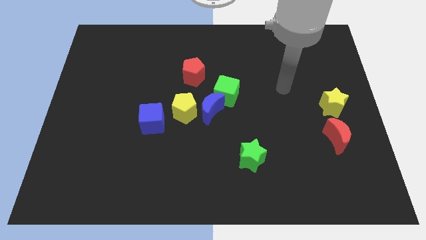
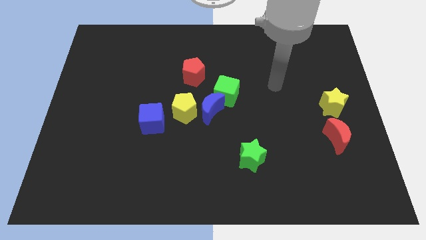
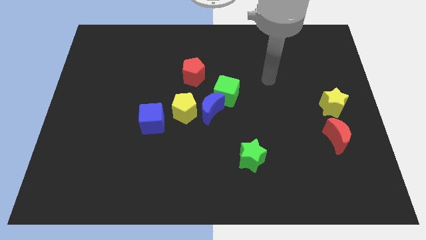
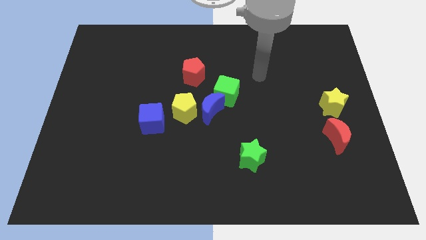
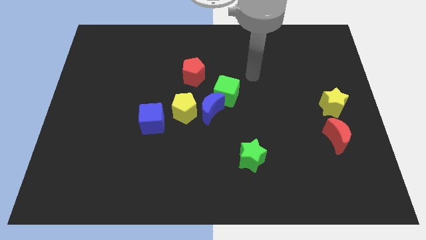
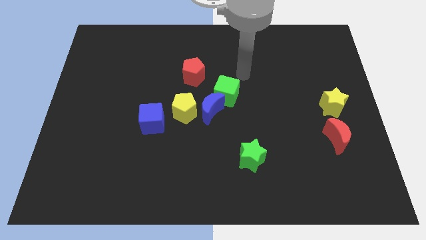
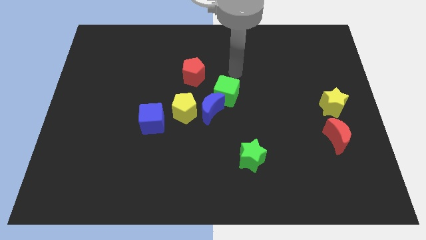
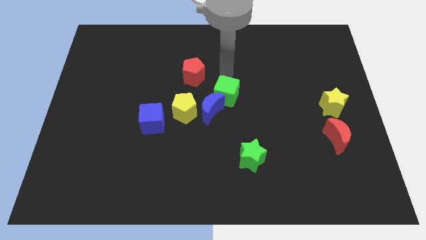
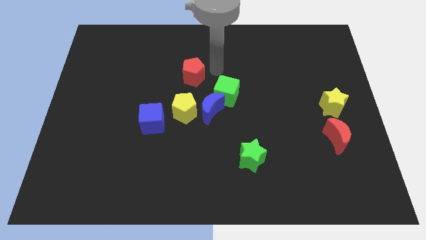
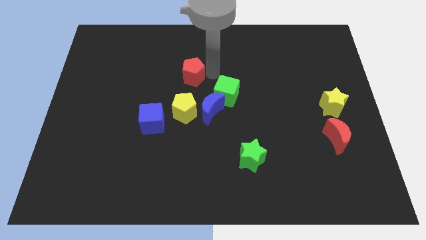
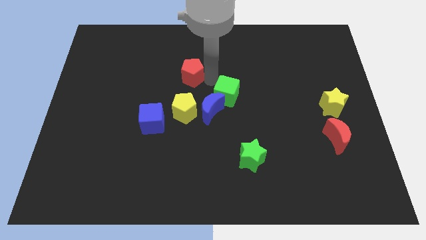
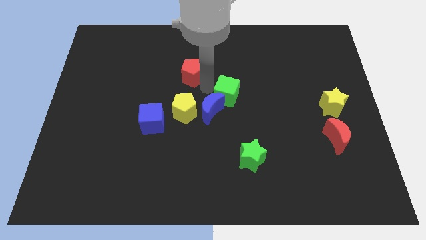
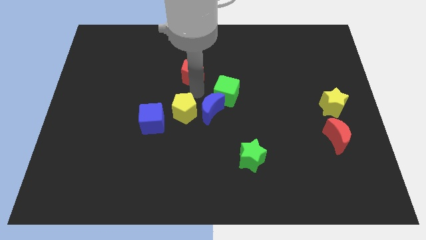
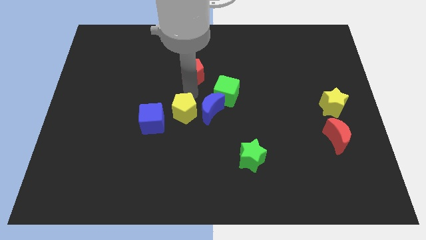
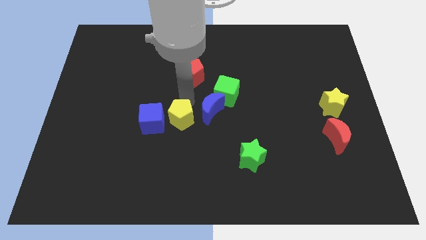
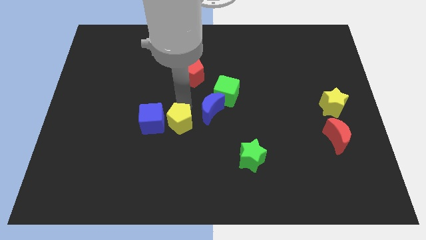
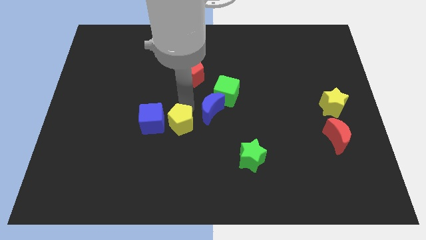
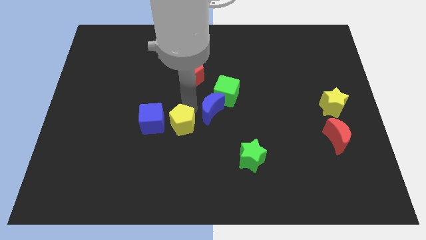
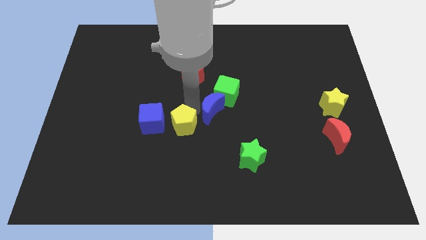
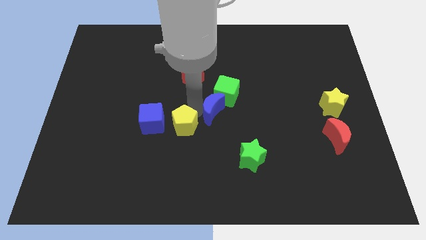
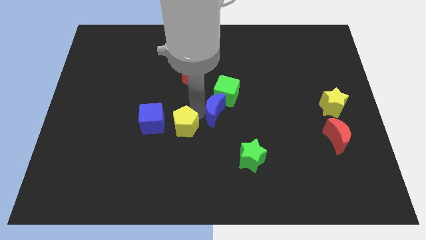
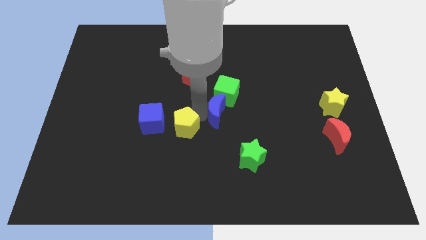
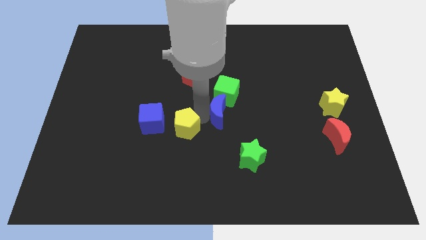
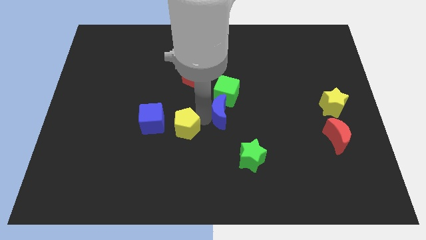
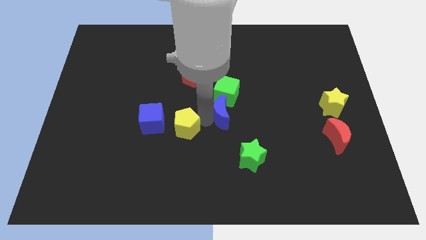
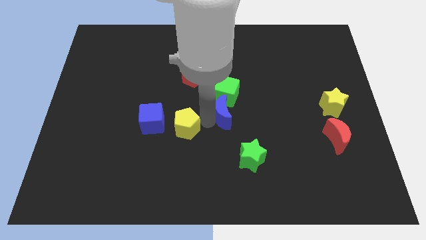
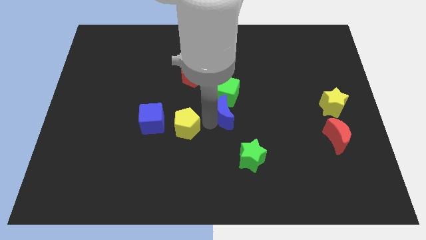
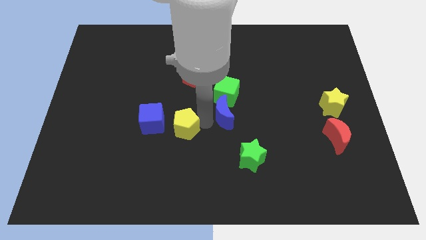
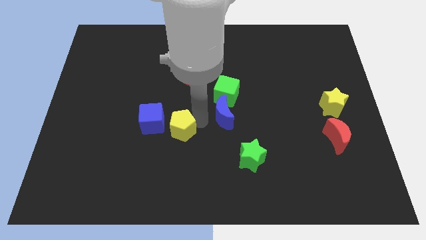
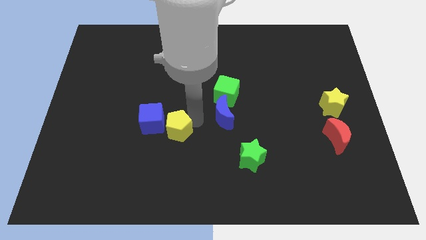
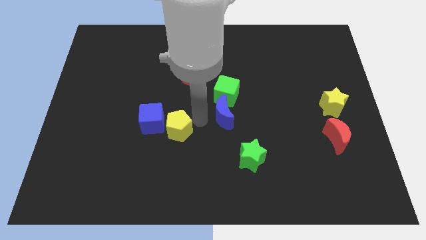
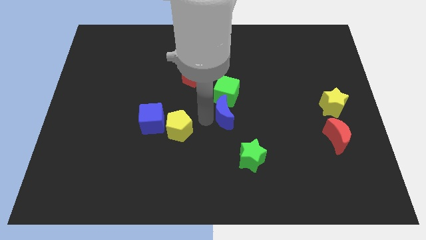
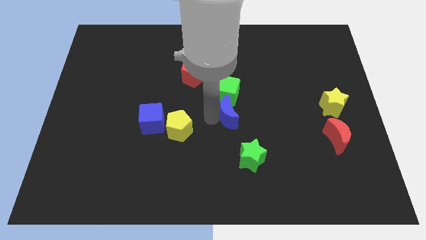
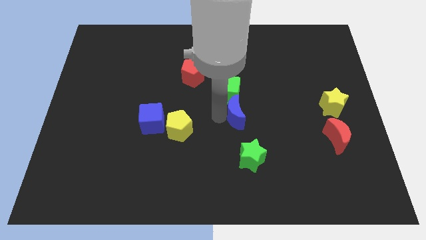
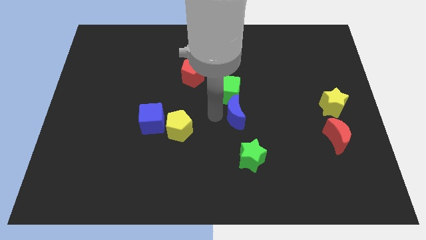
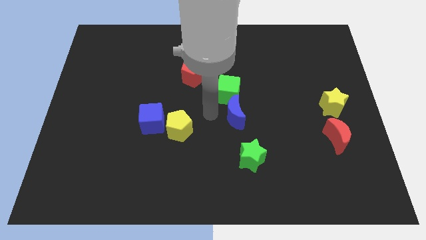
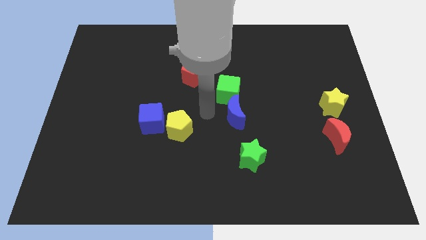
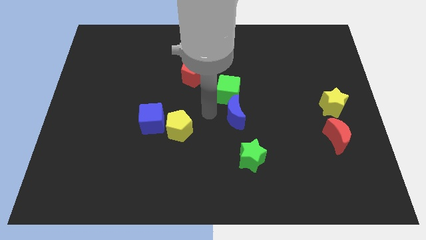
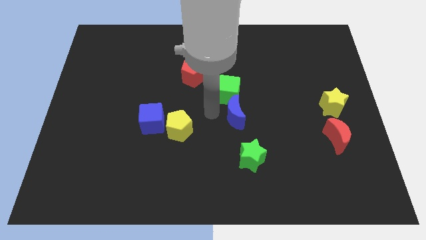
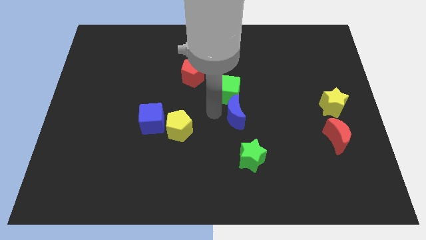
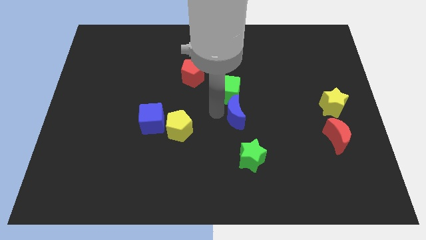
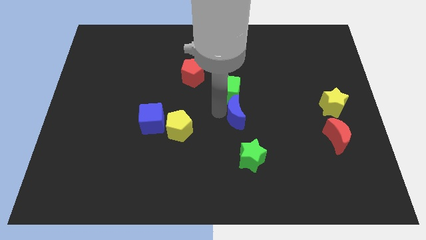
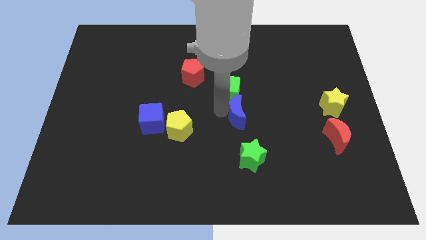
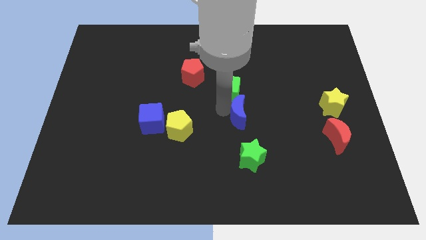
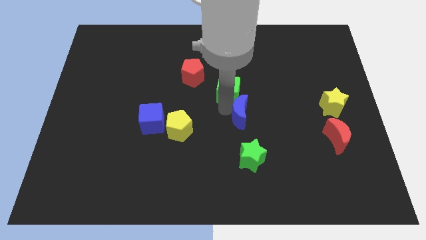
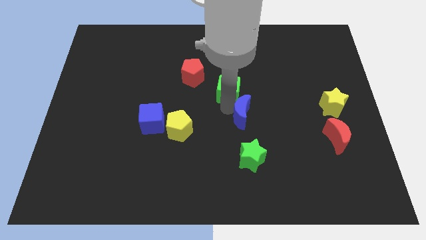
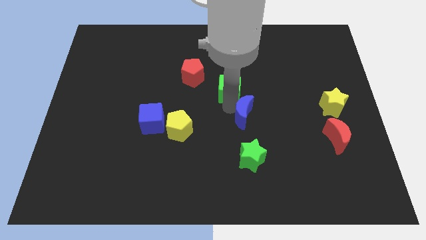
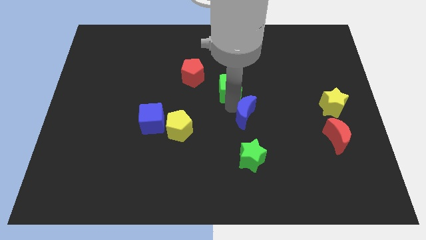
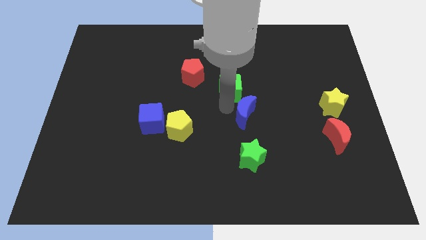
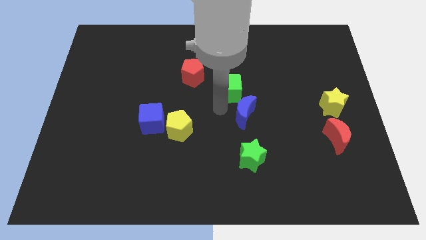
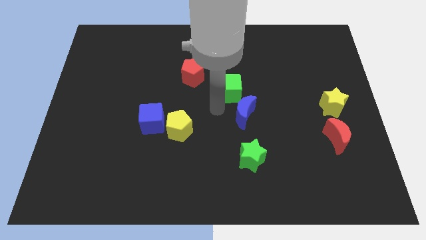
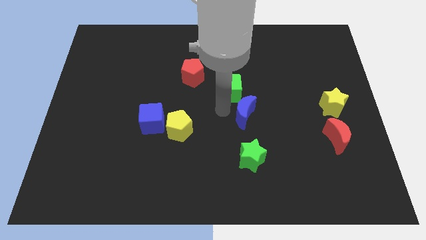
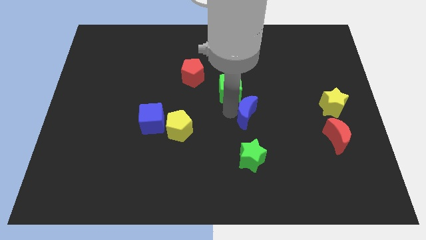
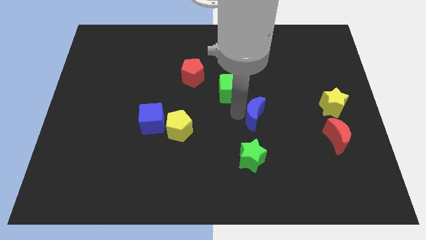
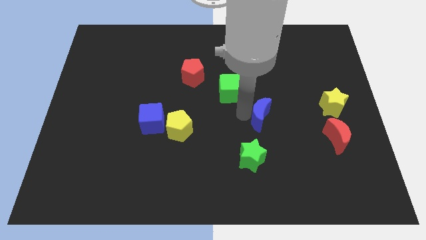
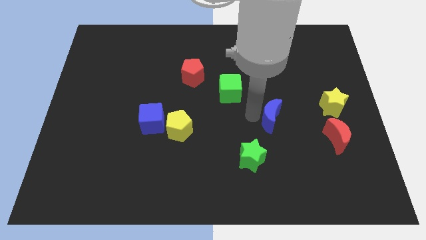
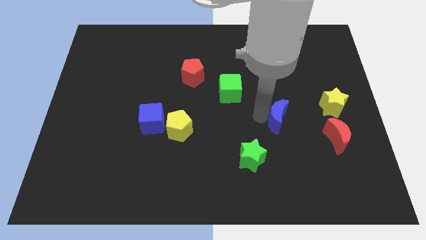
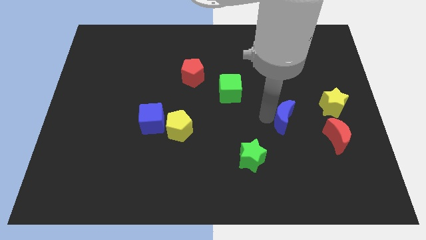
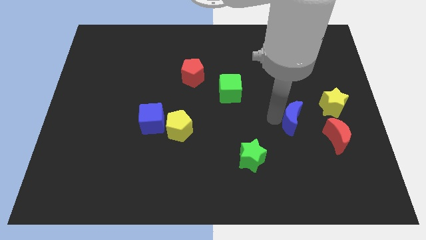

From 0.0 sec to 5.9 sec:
put the blue moon to the bottom left side of the yellow star

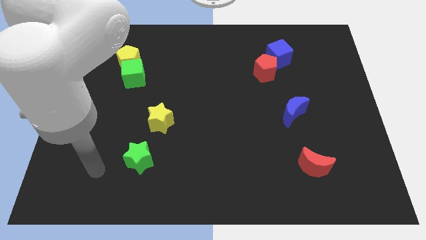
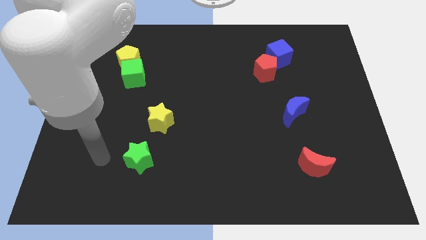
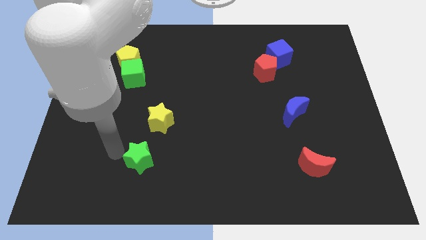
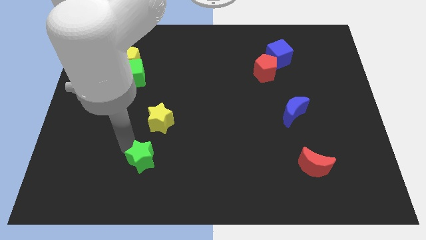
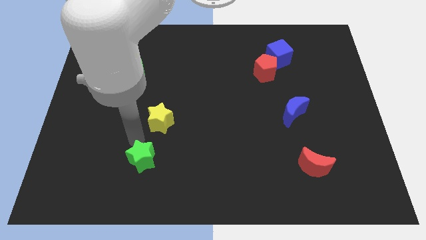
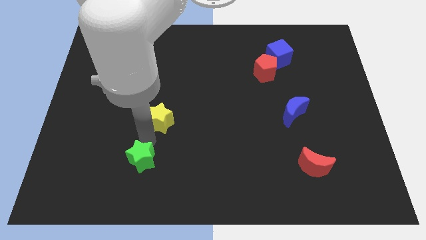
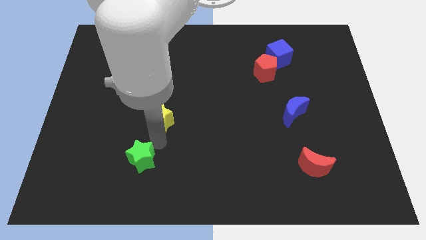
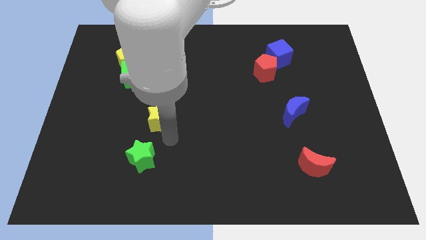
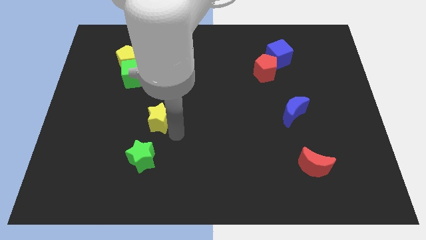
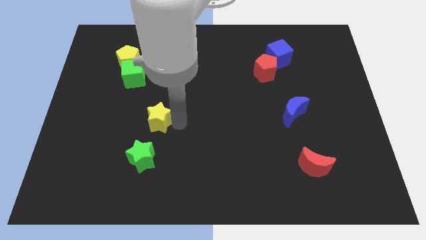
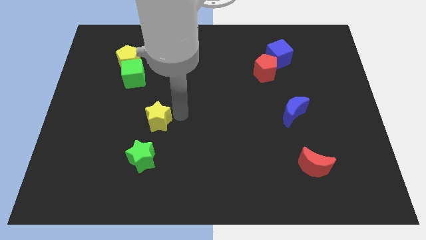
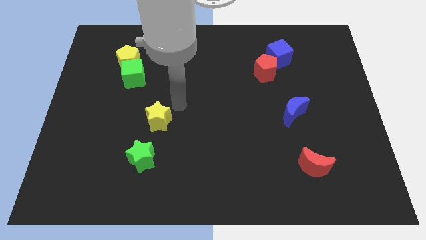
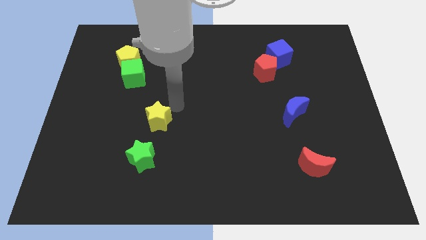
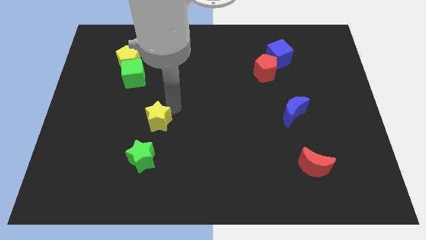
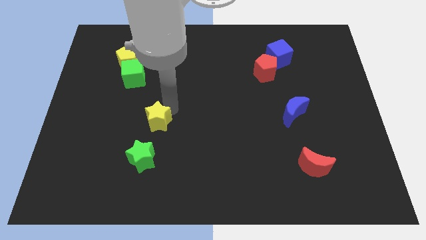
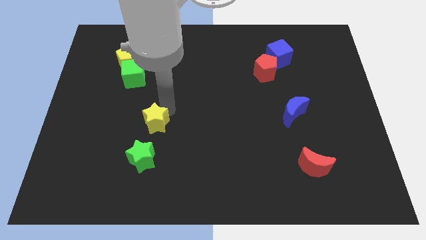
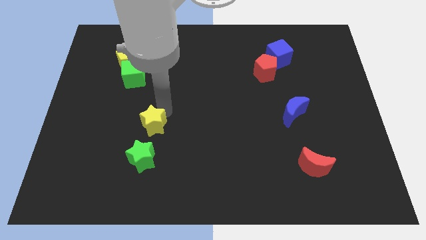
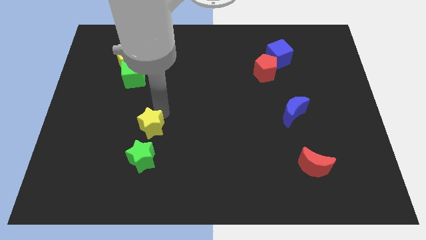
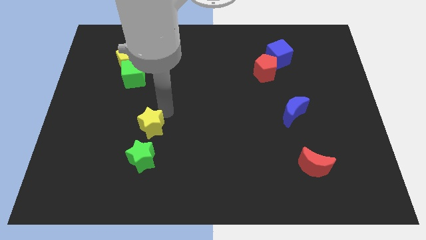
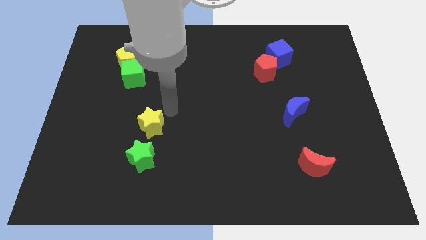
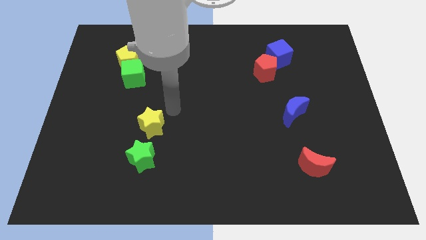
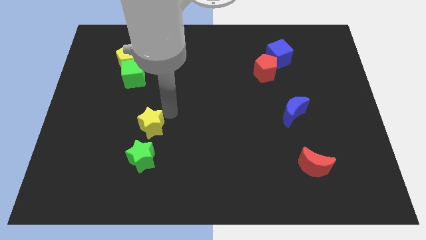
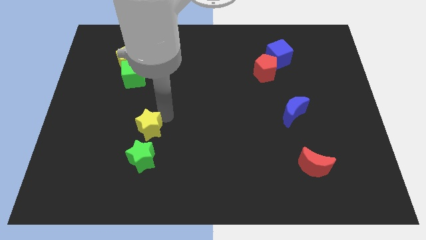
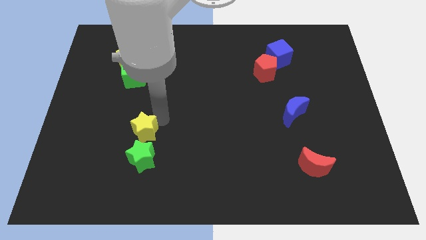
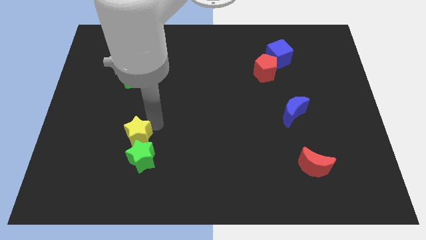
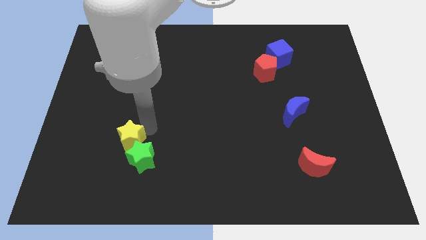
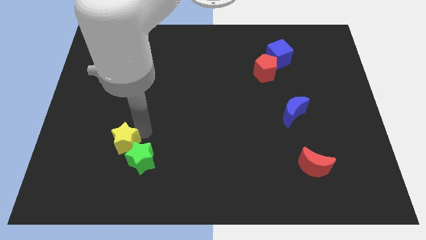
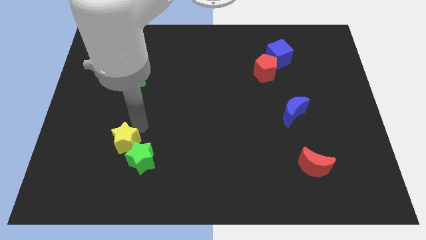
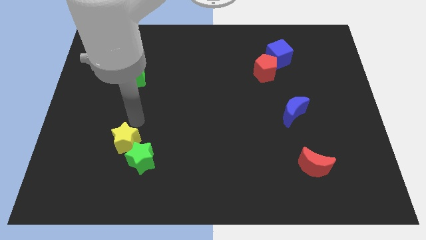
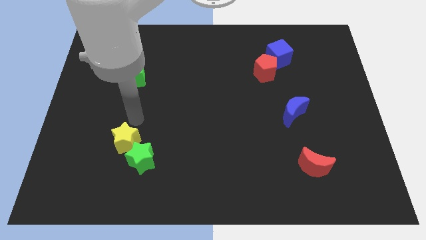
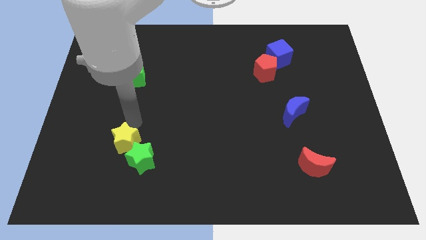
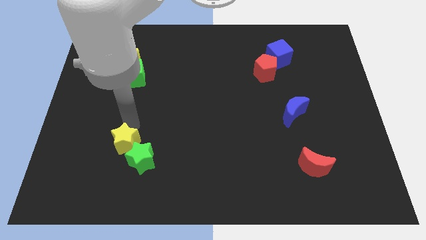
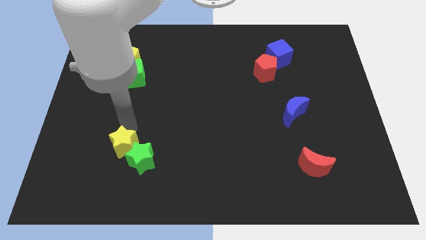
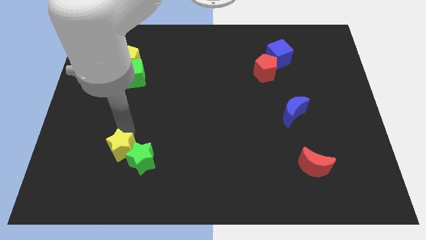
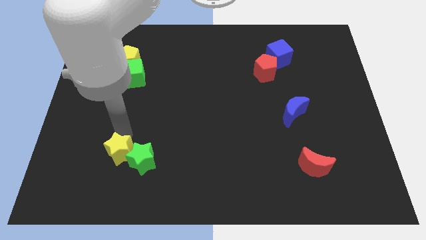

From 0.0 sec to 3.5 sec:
slide the yellow star to the bottom left of the green star
